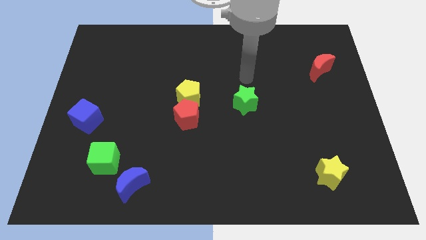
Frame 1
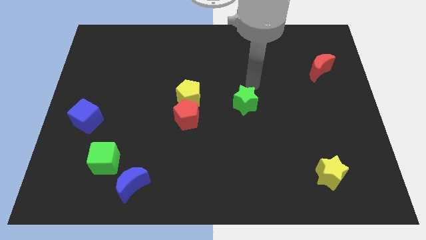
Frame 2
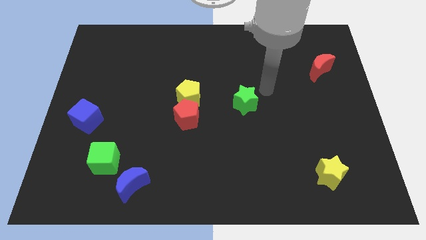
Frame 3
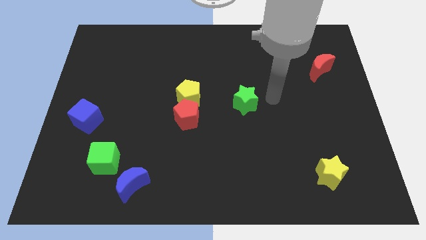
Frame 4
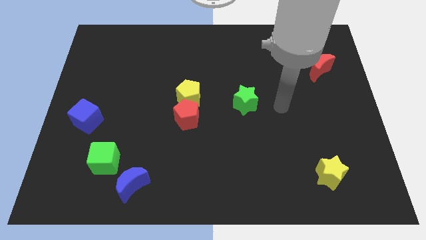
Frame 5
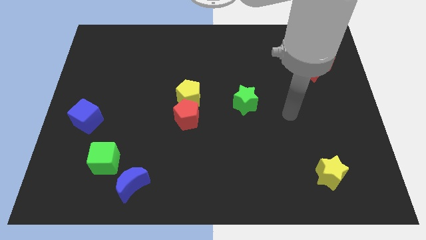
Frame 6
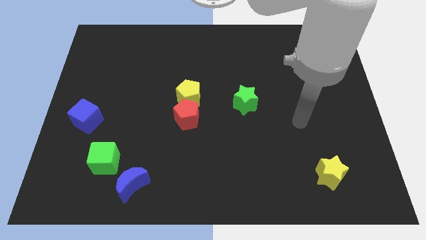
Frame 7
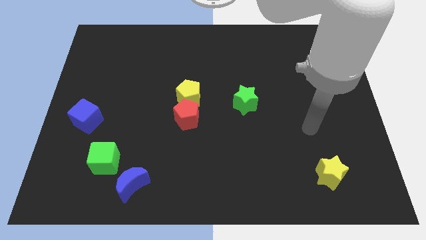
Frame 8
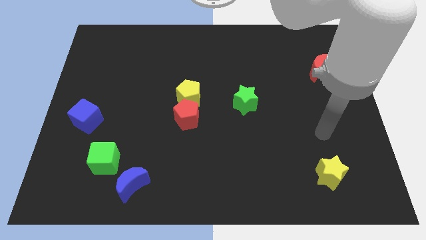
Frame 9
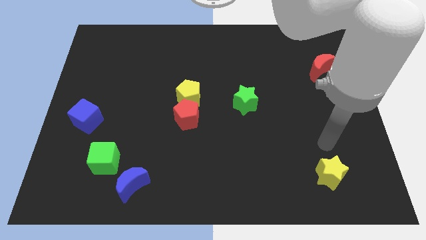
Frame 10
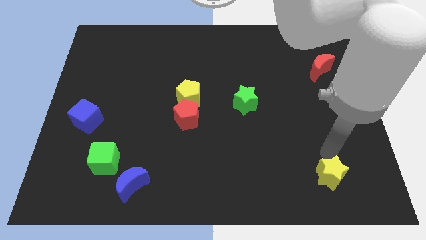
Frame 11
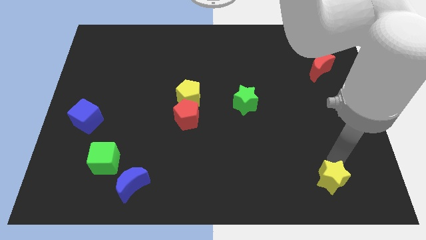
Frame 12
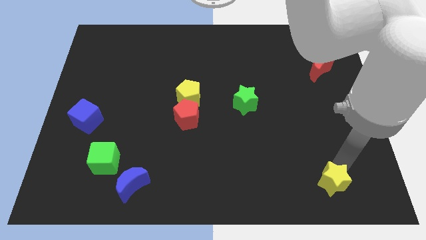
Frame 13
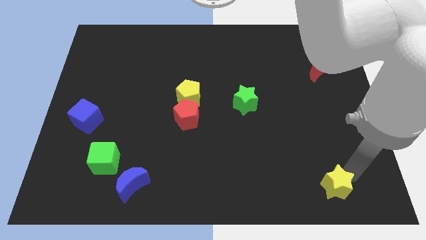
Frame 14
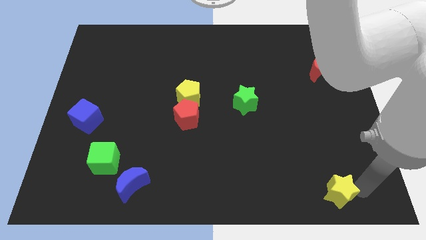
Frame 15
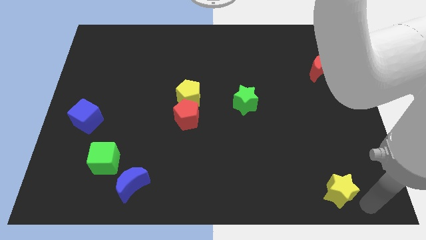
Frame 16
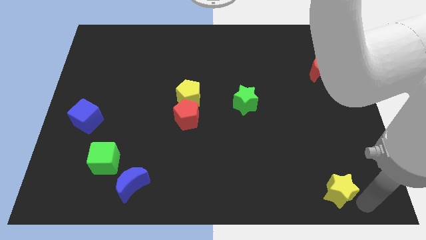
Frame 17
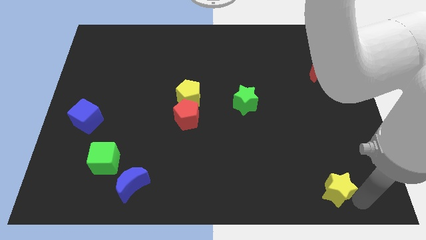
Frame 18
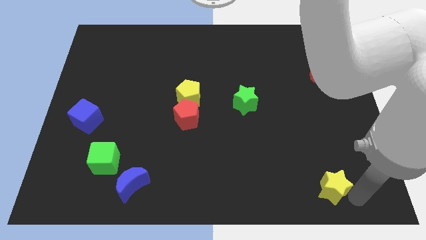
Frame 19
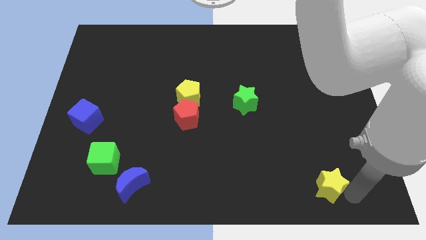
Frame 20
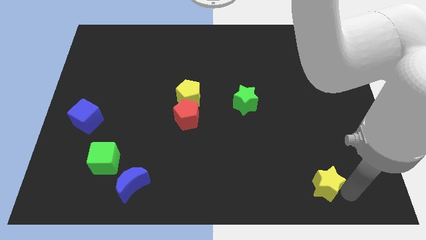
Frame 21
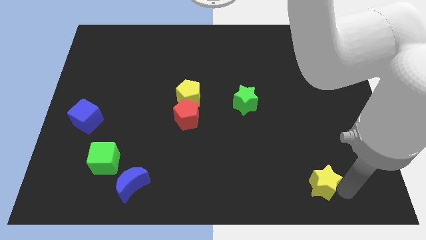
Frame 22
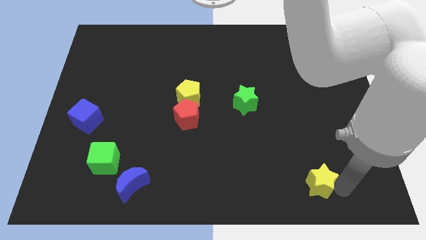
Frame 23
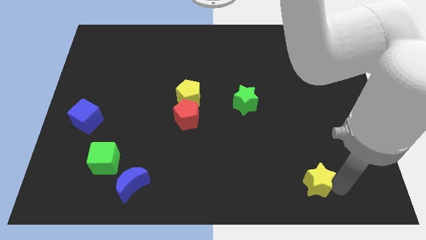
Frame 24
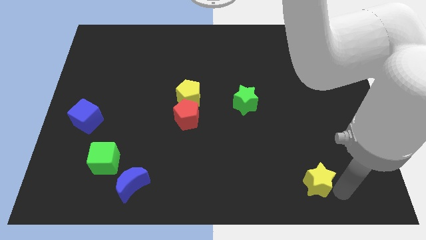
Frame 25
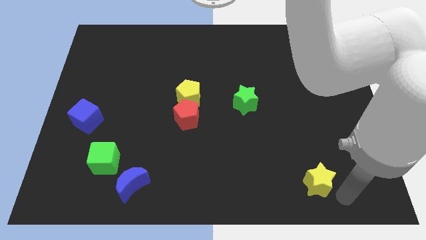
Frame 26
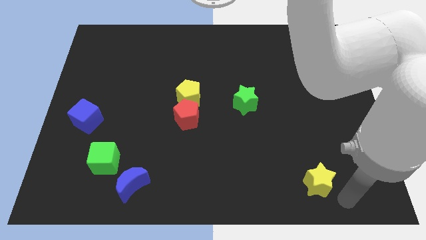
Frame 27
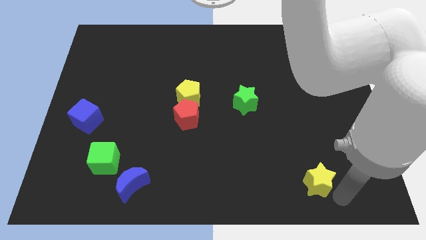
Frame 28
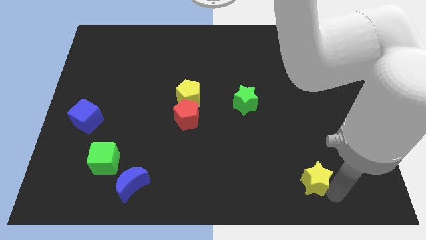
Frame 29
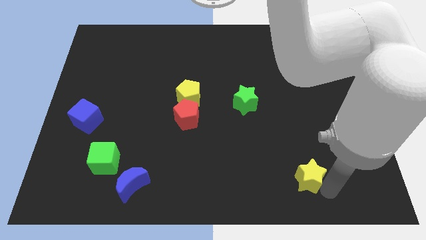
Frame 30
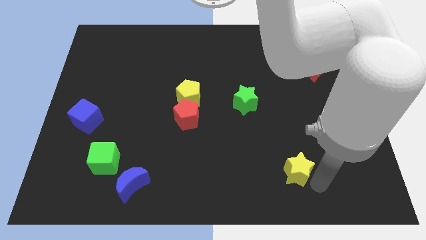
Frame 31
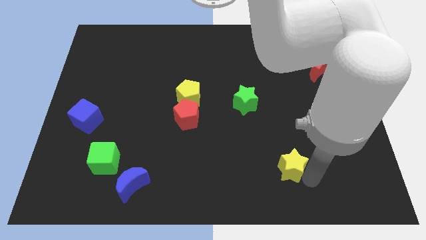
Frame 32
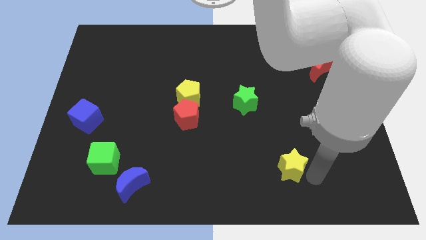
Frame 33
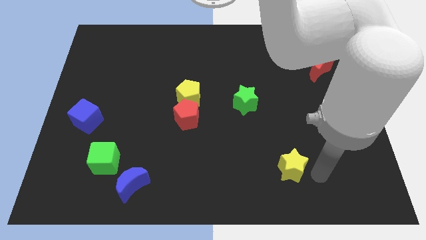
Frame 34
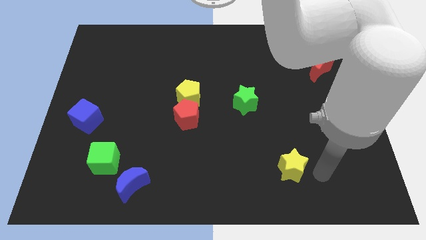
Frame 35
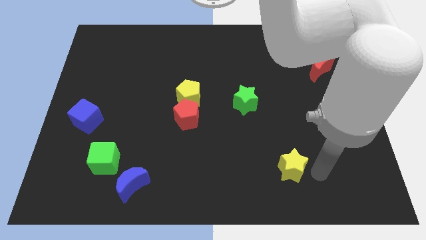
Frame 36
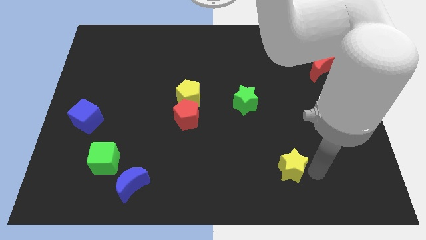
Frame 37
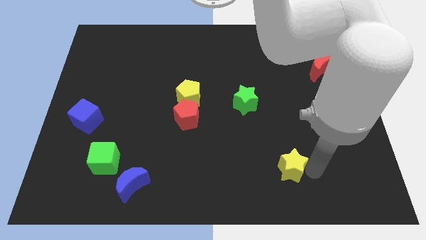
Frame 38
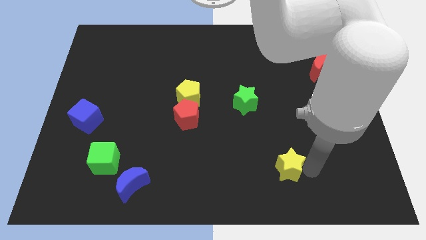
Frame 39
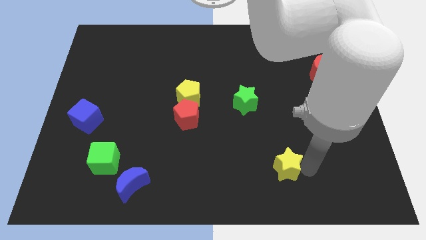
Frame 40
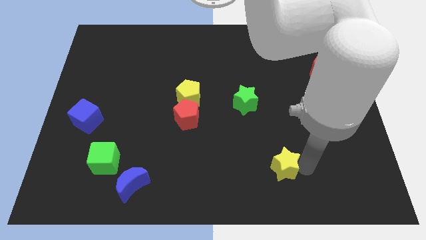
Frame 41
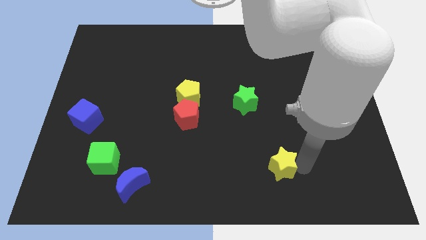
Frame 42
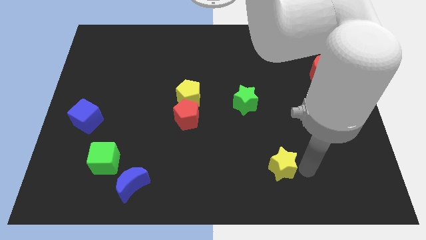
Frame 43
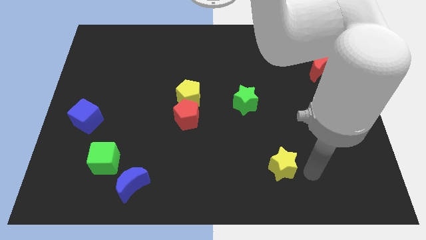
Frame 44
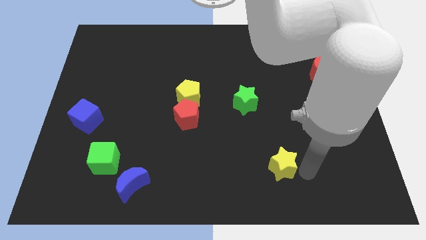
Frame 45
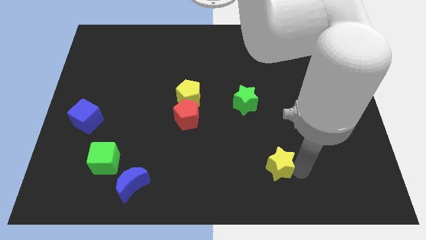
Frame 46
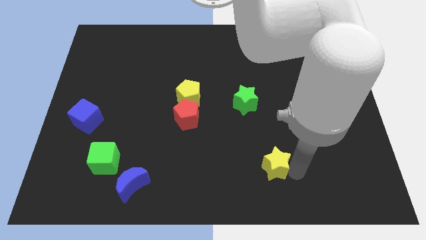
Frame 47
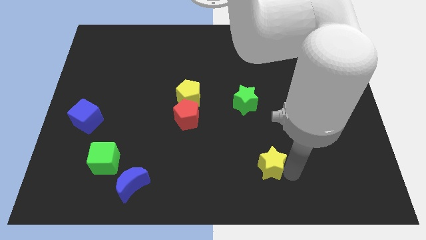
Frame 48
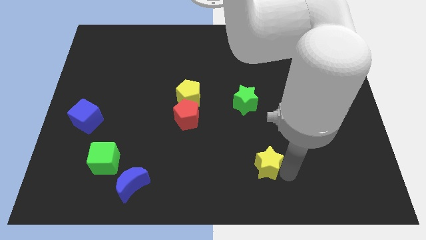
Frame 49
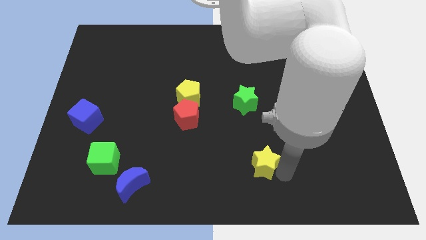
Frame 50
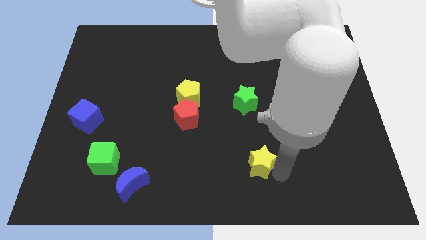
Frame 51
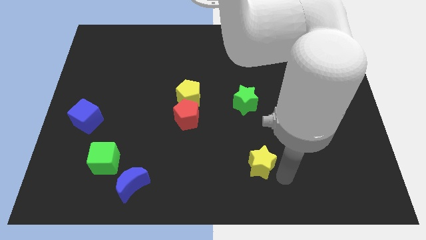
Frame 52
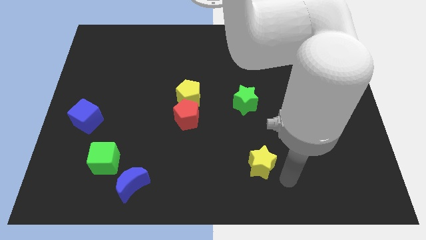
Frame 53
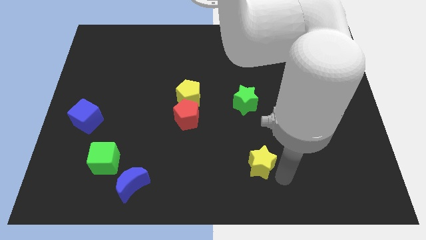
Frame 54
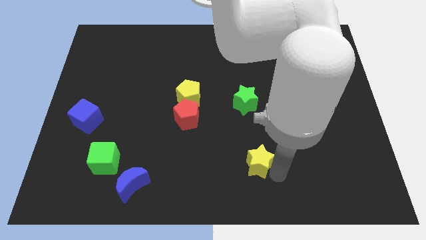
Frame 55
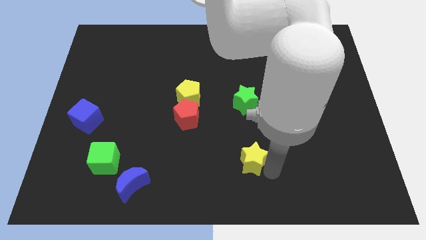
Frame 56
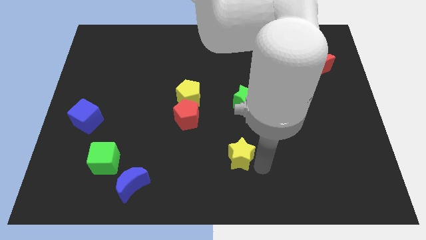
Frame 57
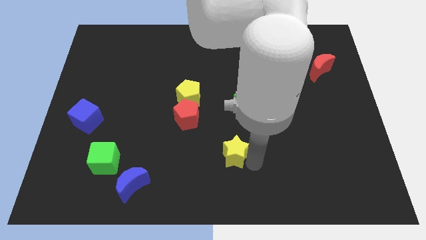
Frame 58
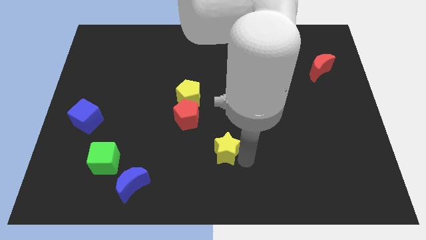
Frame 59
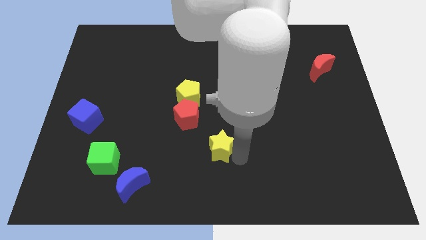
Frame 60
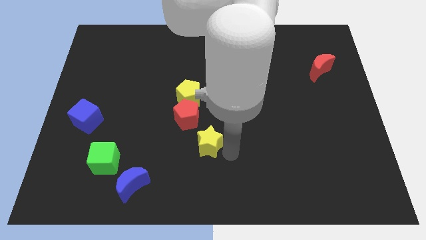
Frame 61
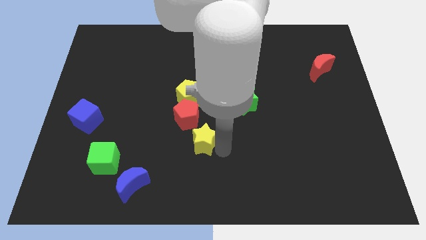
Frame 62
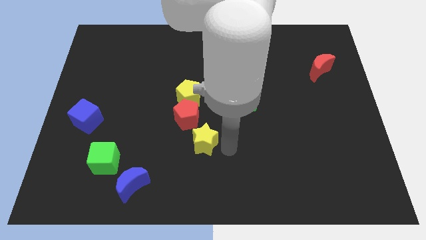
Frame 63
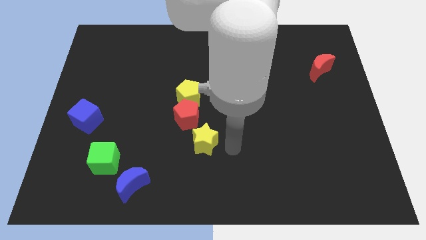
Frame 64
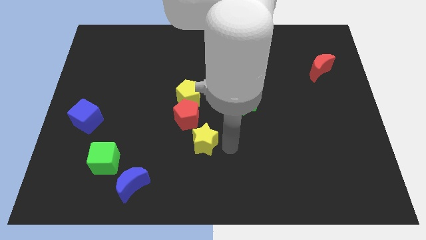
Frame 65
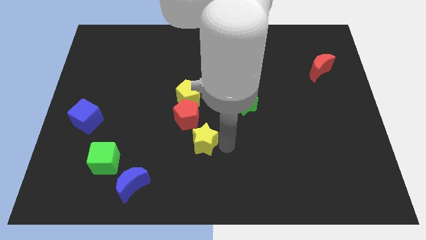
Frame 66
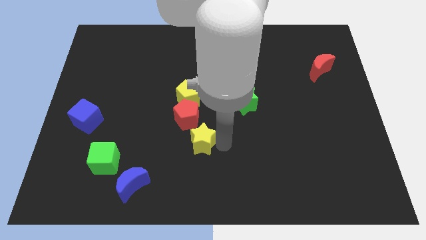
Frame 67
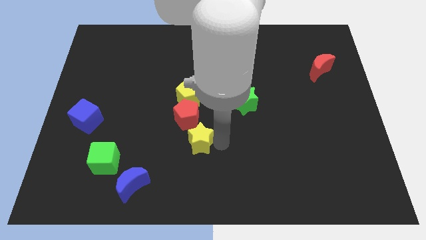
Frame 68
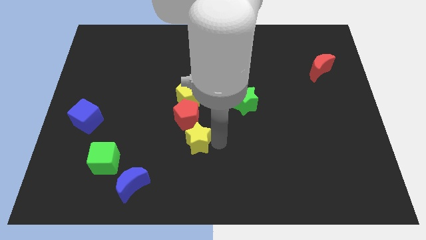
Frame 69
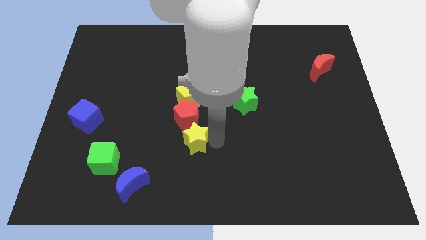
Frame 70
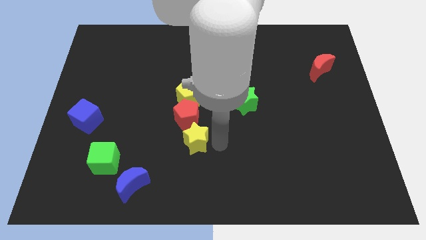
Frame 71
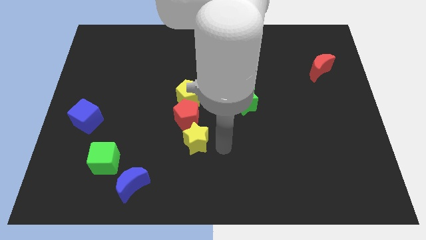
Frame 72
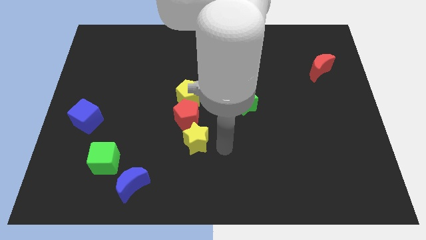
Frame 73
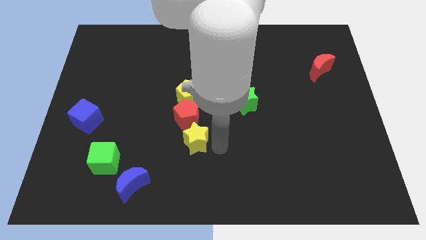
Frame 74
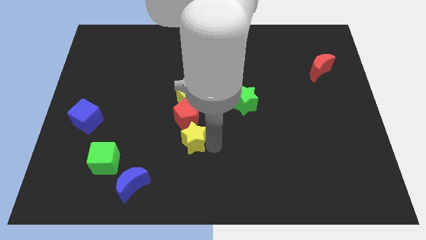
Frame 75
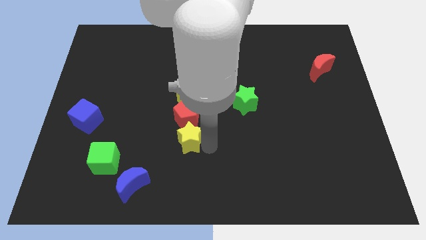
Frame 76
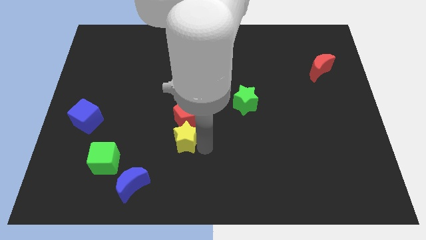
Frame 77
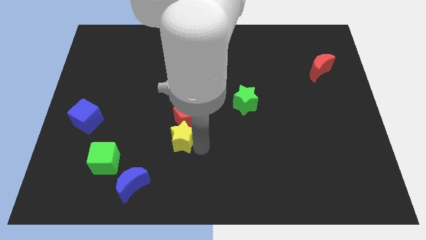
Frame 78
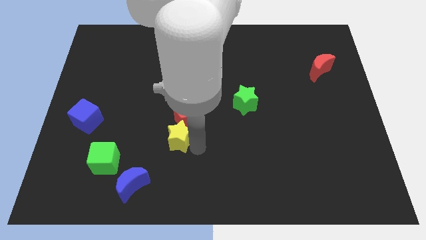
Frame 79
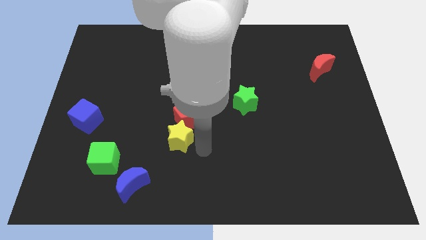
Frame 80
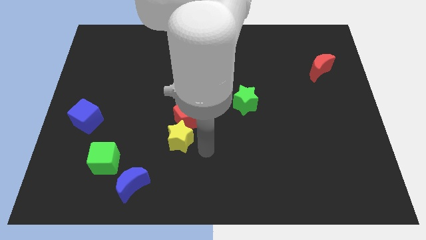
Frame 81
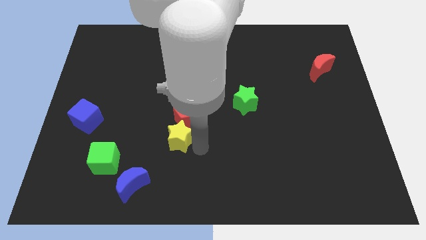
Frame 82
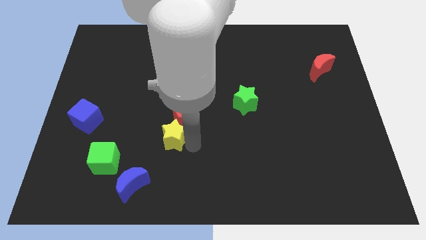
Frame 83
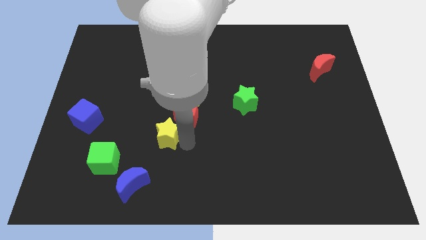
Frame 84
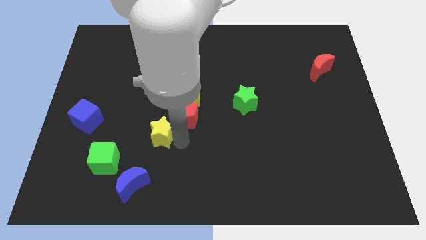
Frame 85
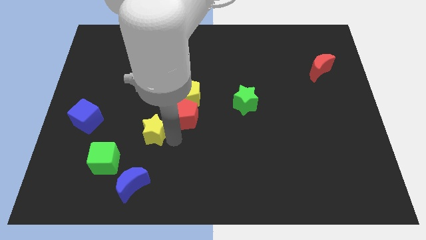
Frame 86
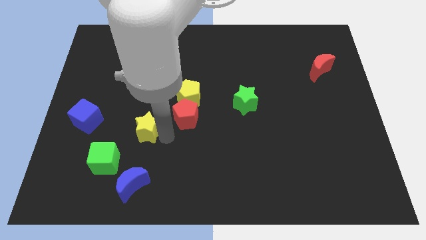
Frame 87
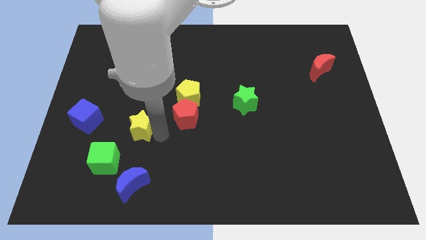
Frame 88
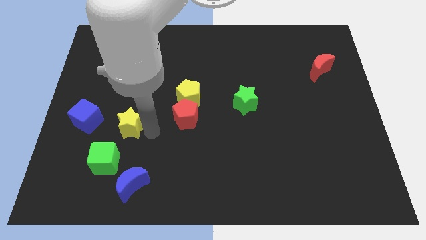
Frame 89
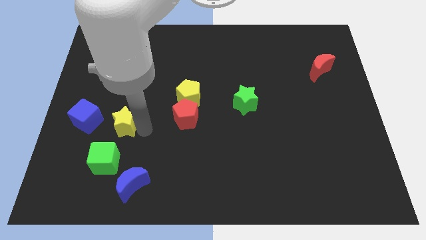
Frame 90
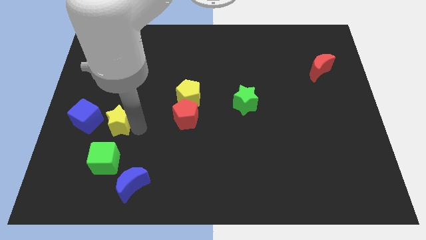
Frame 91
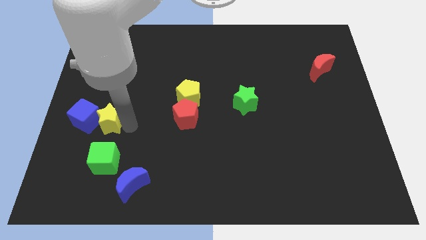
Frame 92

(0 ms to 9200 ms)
slide the yellow star to the blue cube
